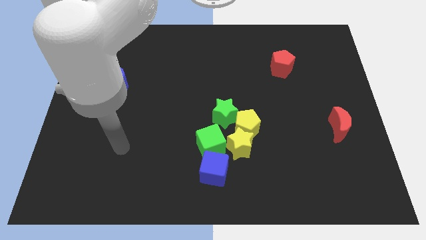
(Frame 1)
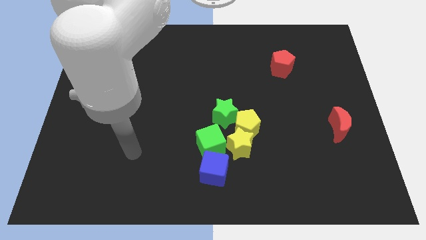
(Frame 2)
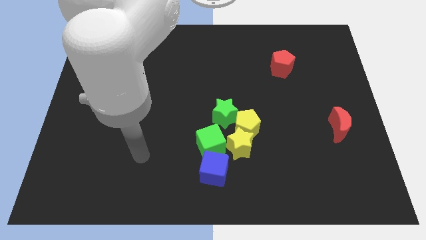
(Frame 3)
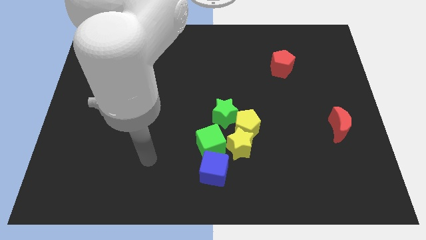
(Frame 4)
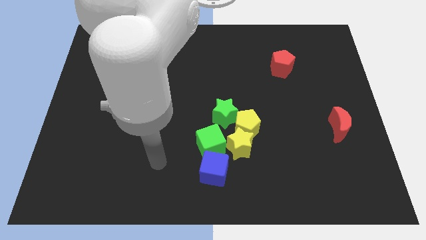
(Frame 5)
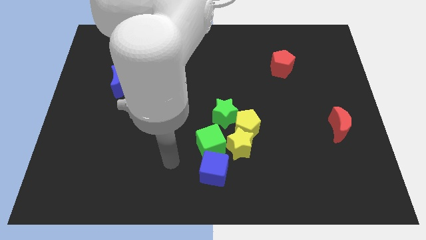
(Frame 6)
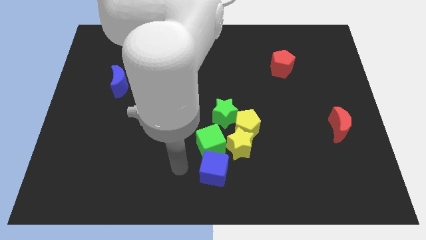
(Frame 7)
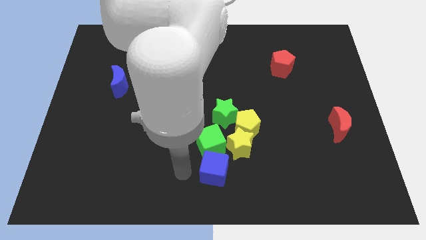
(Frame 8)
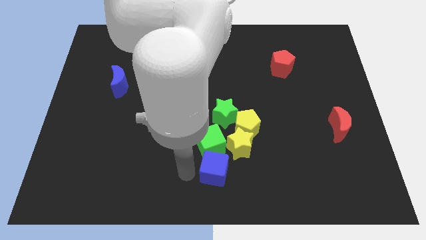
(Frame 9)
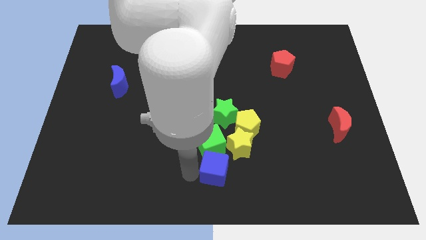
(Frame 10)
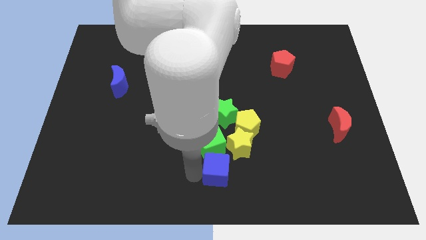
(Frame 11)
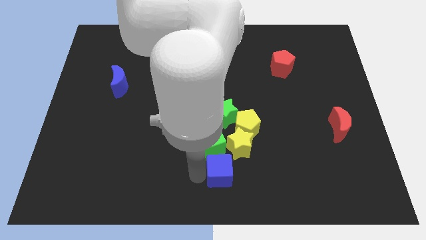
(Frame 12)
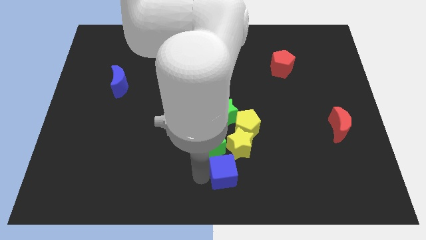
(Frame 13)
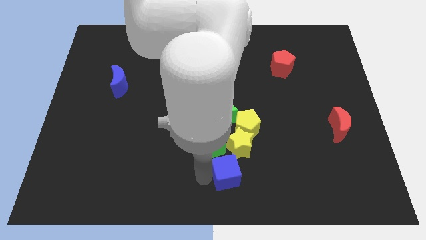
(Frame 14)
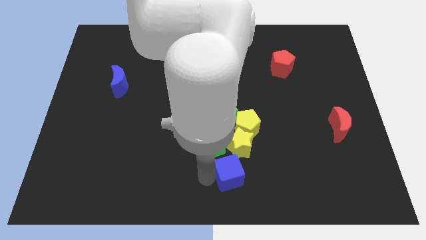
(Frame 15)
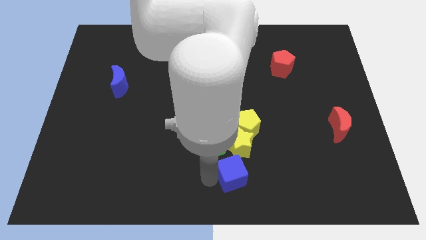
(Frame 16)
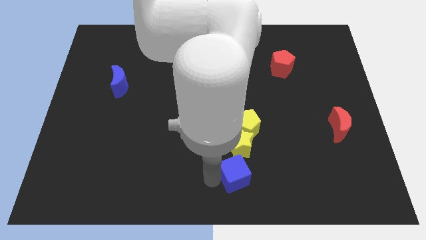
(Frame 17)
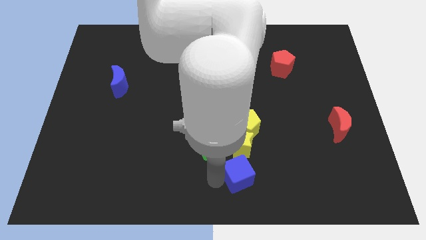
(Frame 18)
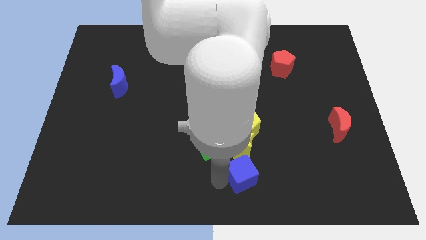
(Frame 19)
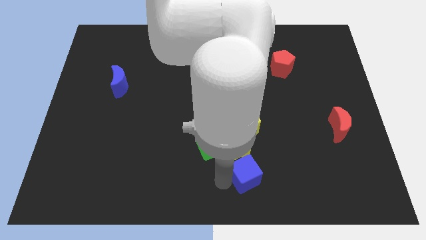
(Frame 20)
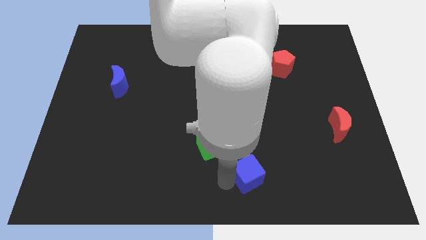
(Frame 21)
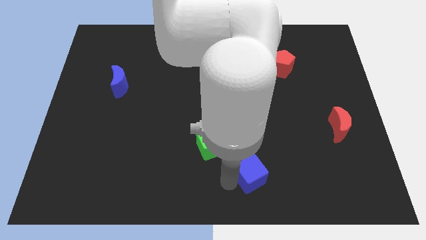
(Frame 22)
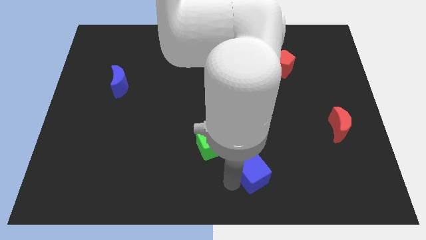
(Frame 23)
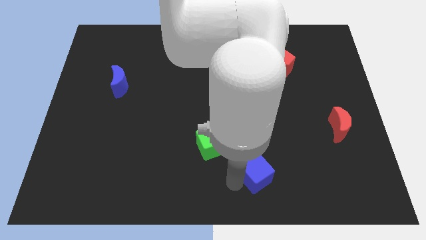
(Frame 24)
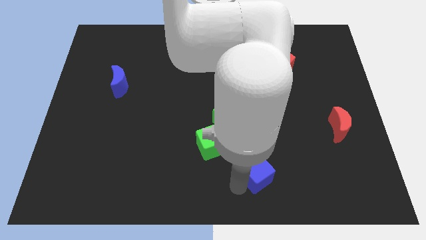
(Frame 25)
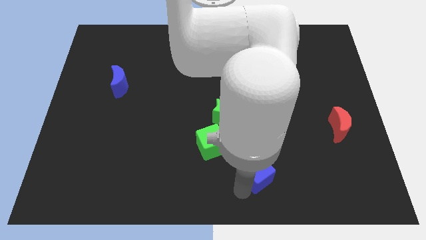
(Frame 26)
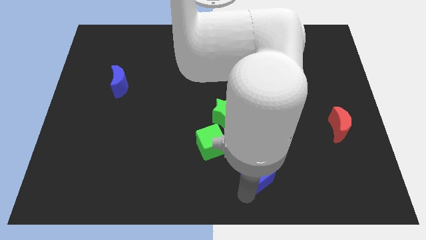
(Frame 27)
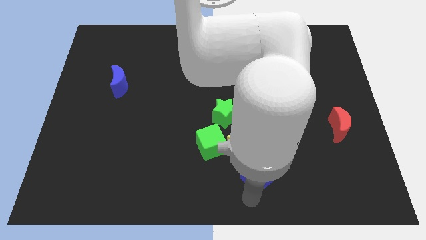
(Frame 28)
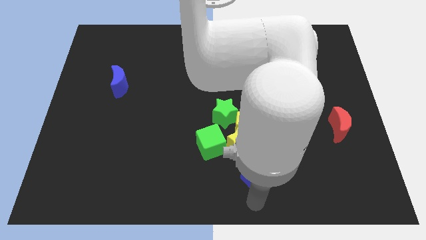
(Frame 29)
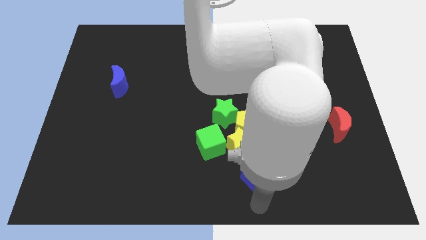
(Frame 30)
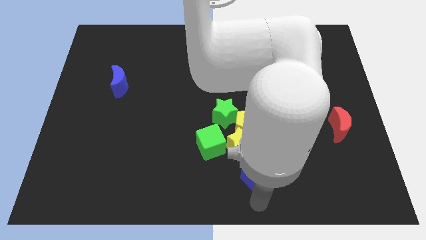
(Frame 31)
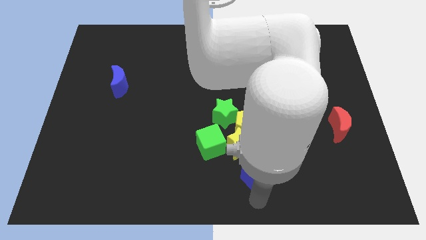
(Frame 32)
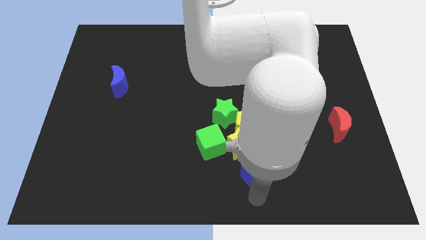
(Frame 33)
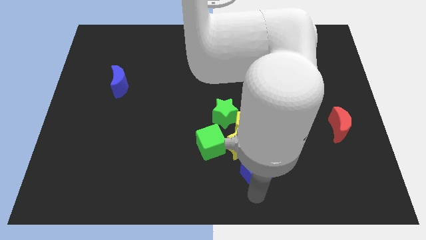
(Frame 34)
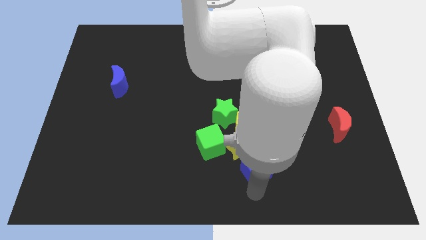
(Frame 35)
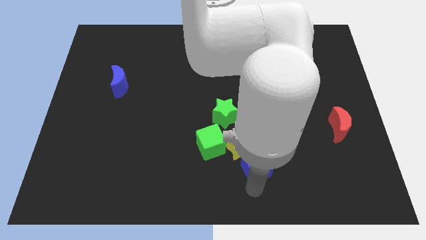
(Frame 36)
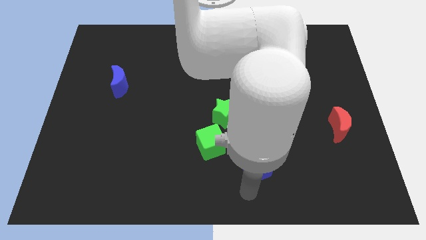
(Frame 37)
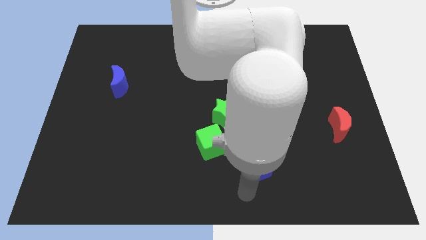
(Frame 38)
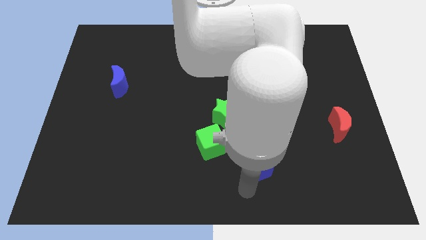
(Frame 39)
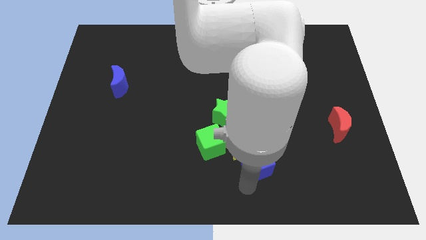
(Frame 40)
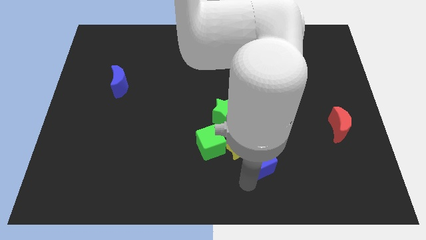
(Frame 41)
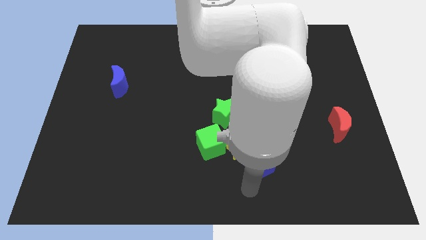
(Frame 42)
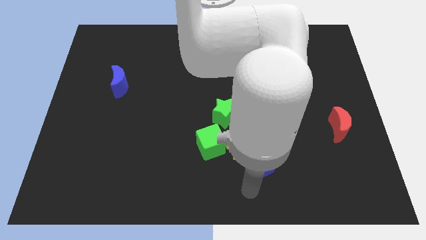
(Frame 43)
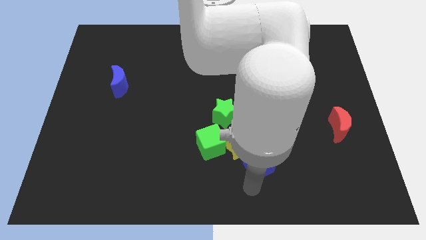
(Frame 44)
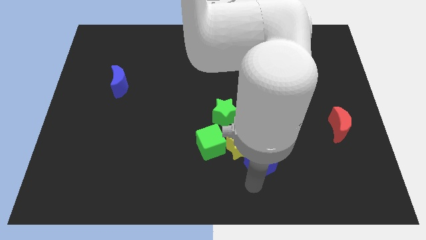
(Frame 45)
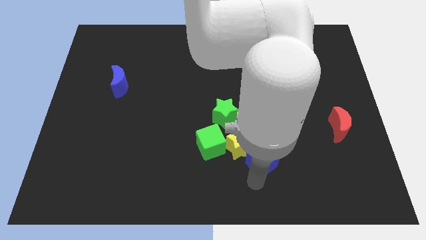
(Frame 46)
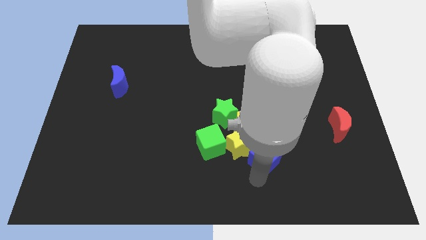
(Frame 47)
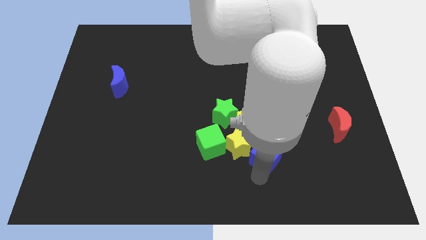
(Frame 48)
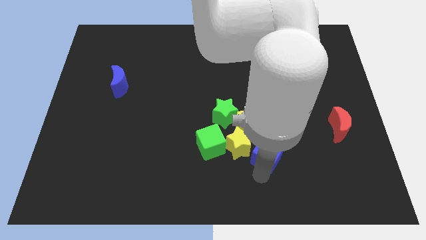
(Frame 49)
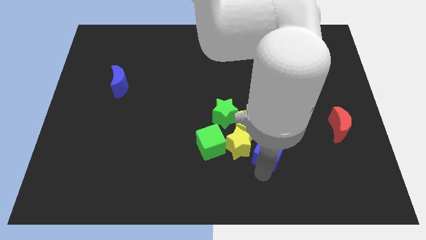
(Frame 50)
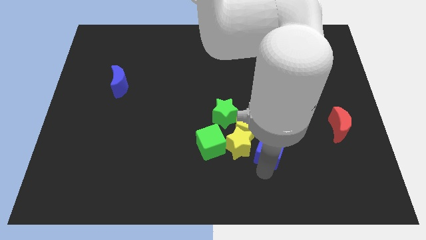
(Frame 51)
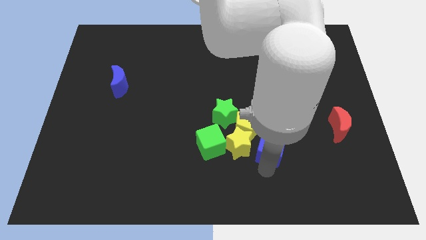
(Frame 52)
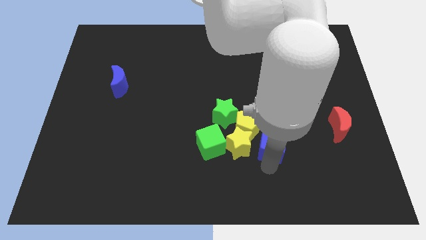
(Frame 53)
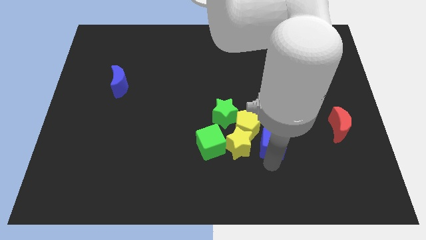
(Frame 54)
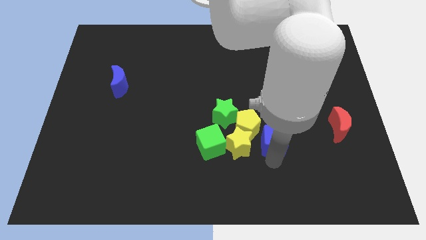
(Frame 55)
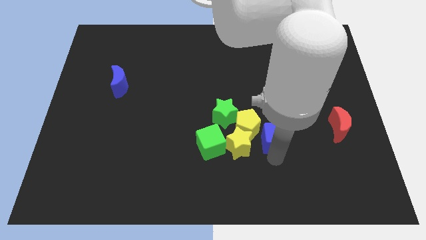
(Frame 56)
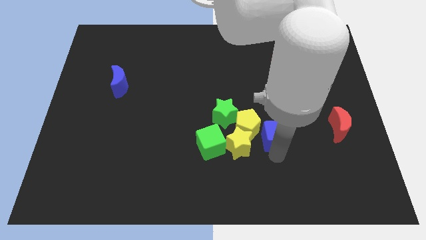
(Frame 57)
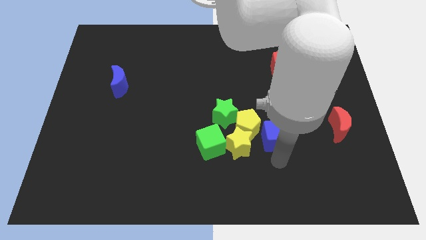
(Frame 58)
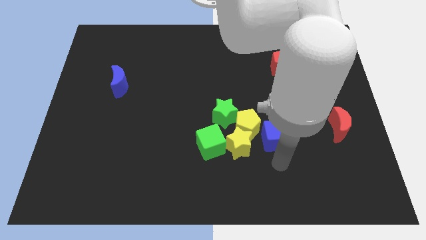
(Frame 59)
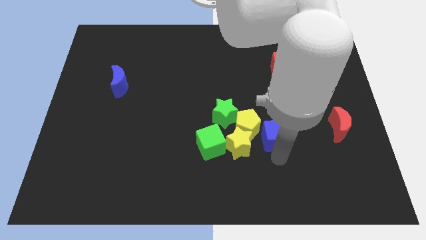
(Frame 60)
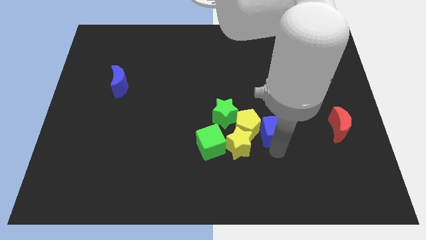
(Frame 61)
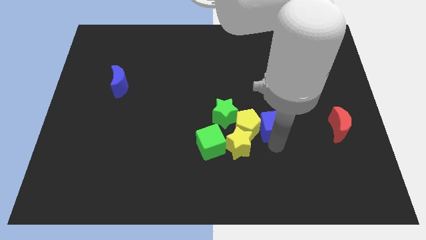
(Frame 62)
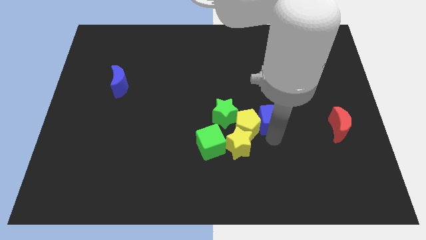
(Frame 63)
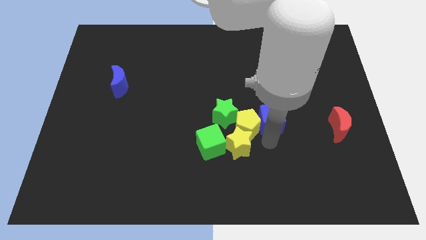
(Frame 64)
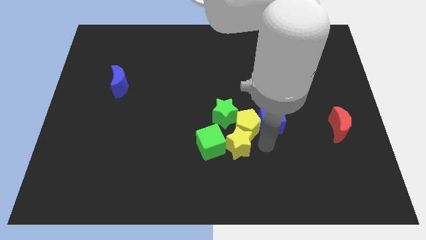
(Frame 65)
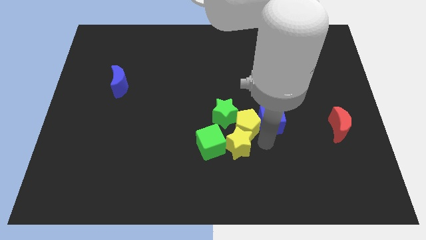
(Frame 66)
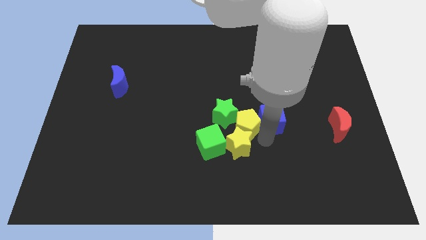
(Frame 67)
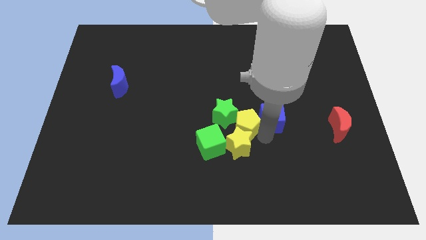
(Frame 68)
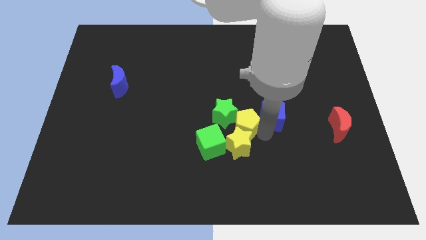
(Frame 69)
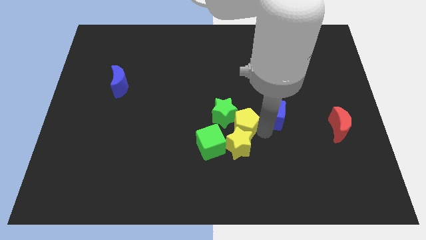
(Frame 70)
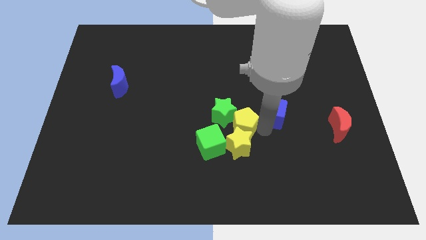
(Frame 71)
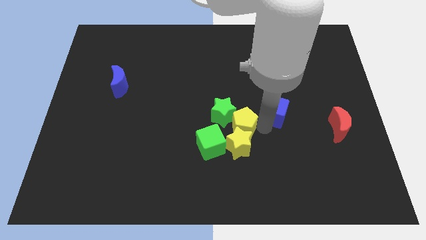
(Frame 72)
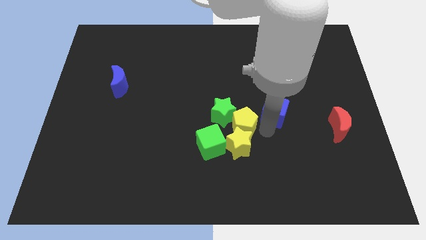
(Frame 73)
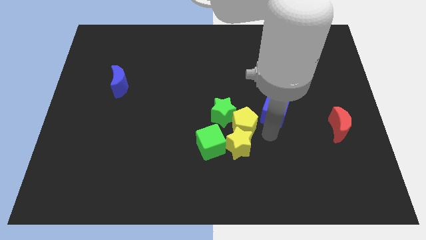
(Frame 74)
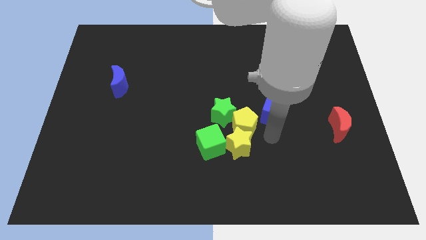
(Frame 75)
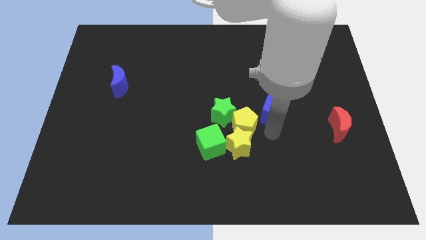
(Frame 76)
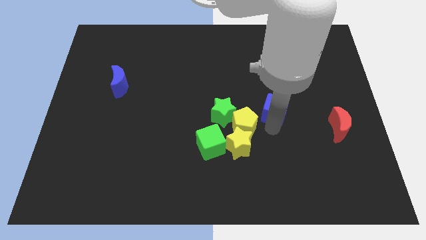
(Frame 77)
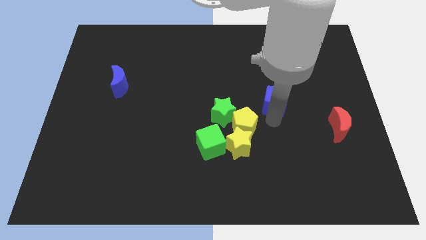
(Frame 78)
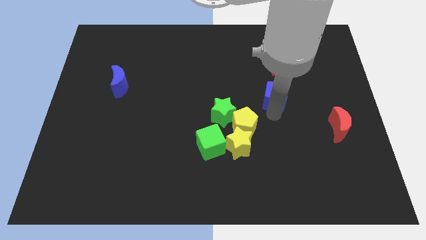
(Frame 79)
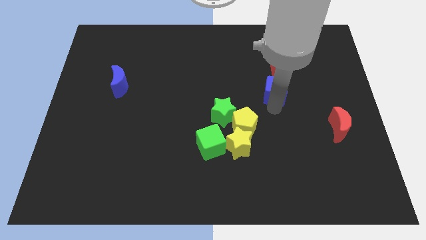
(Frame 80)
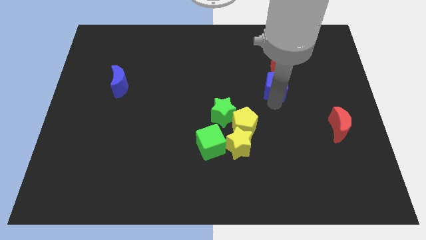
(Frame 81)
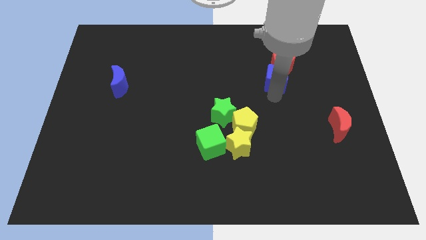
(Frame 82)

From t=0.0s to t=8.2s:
push the blue cube close to the red pentagon
